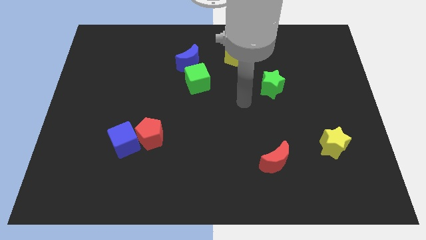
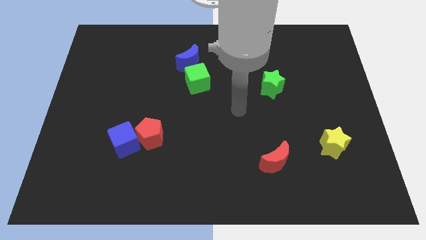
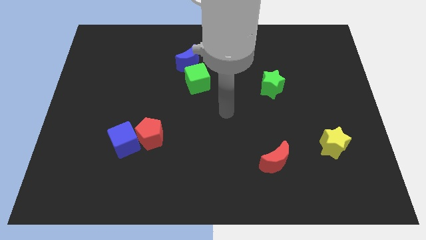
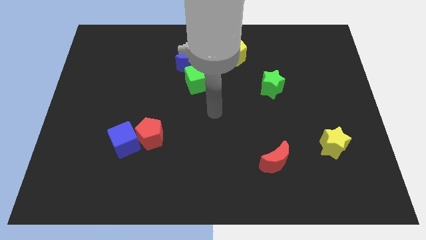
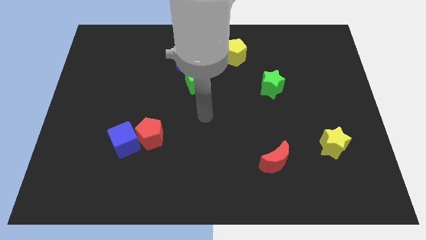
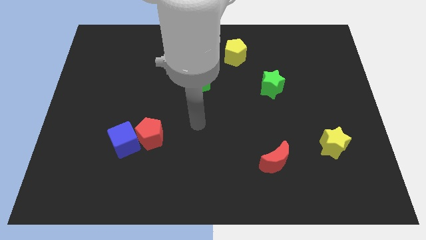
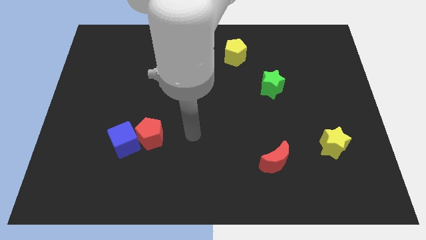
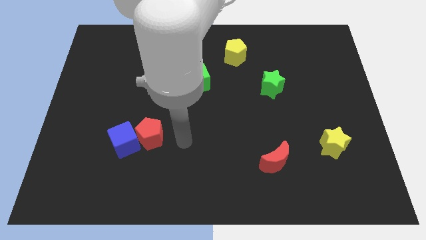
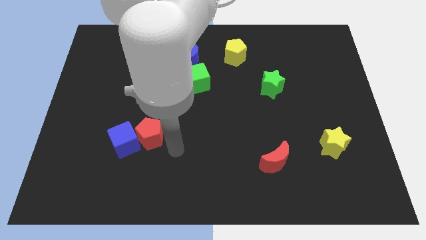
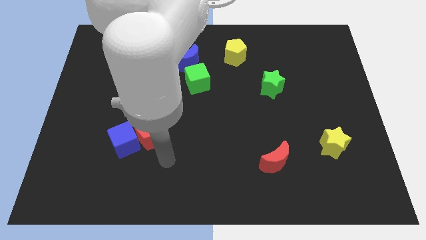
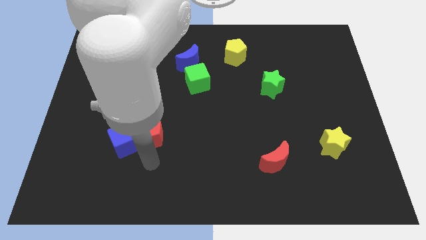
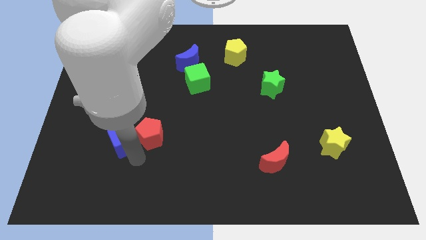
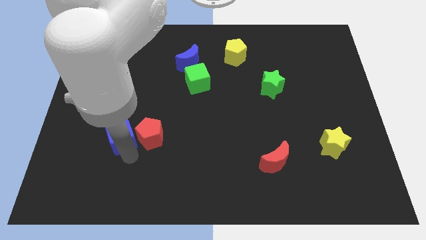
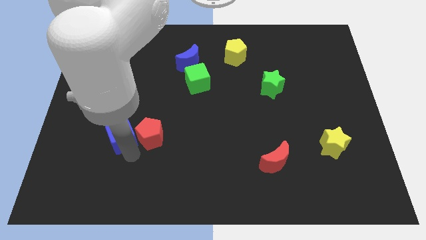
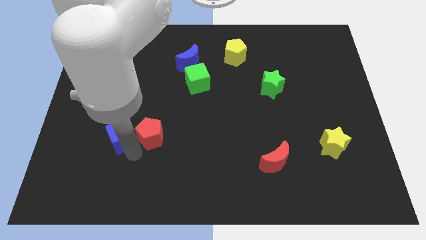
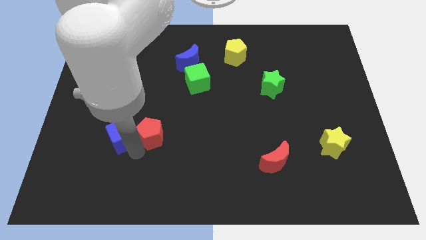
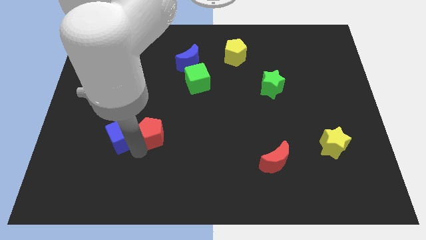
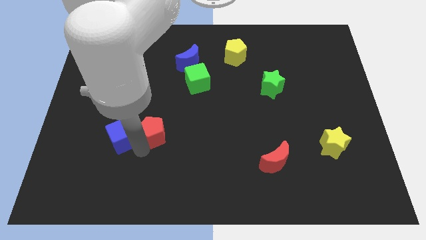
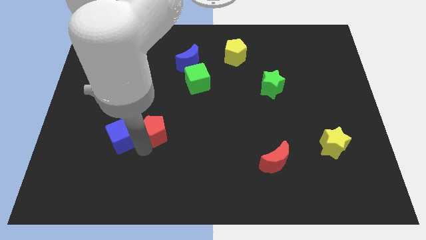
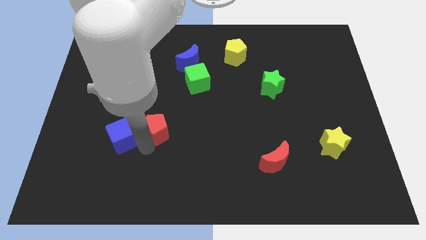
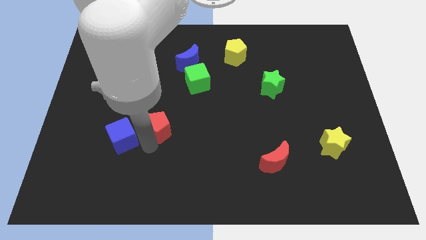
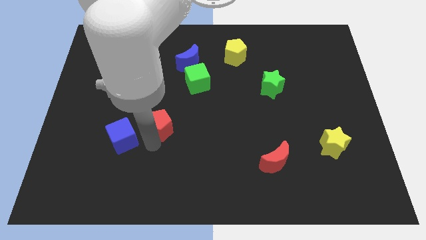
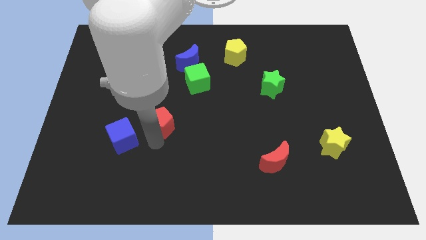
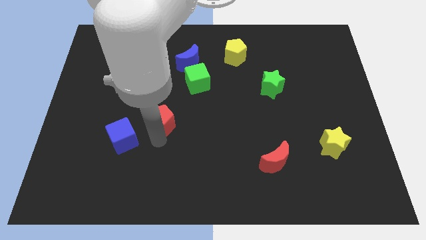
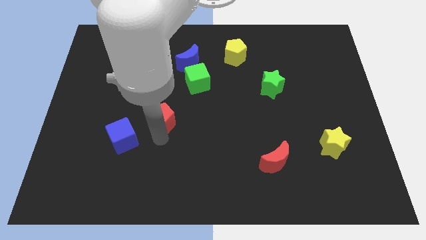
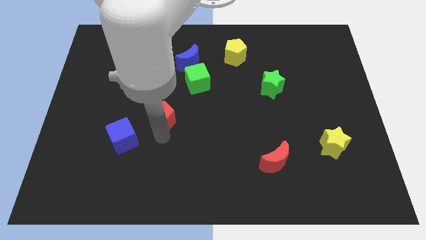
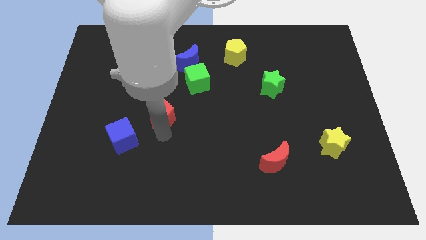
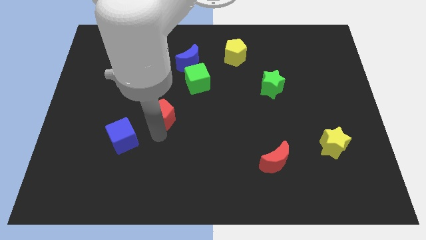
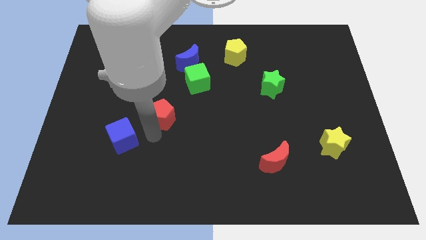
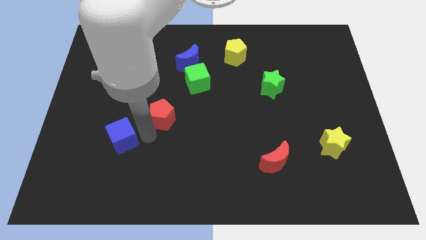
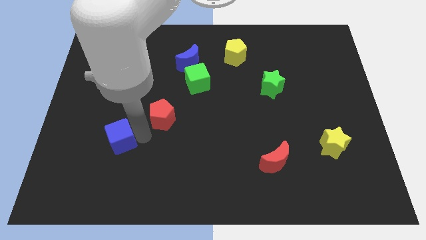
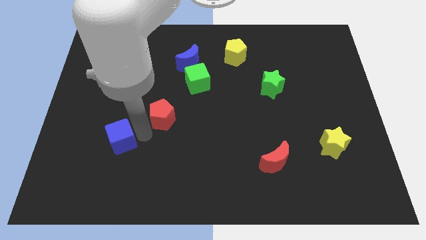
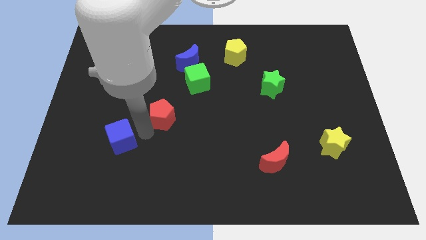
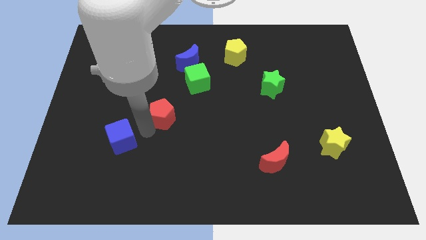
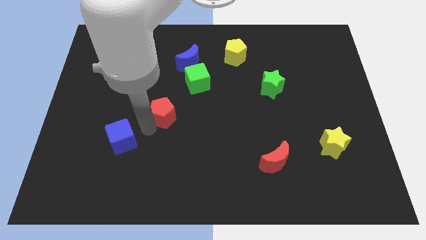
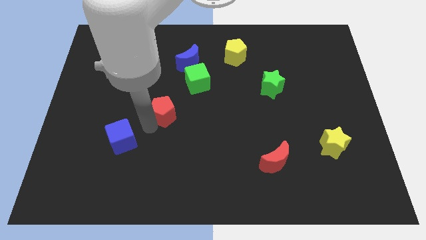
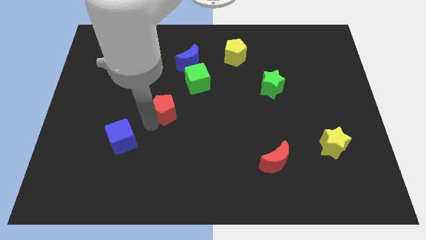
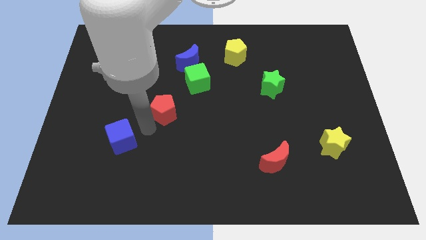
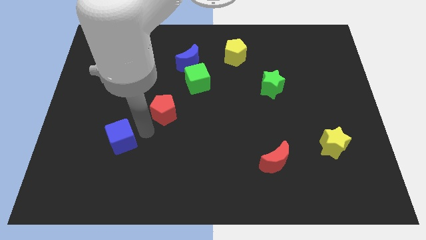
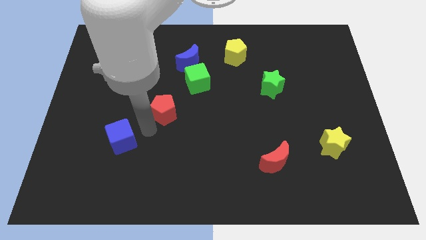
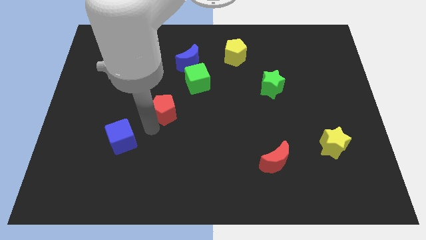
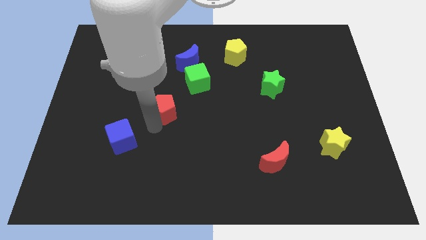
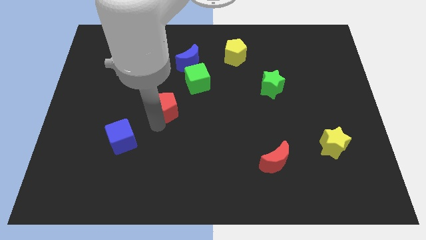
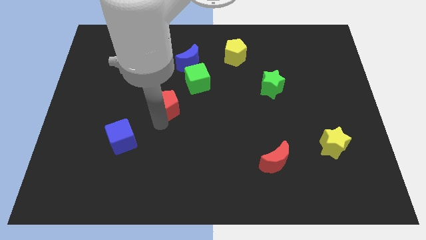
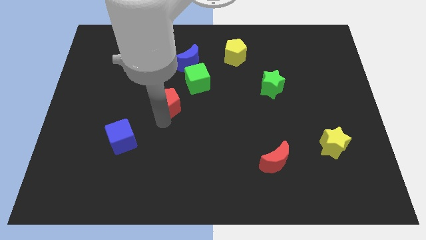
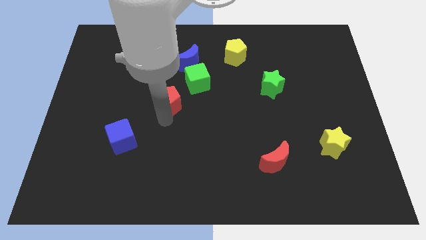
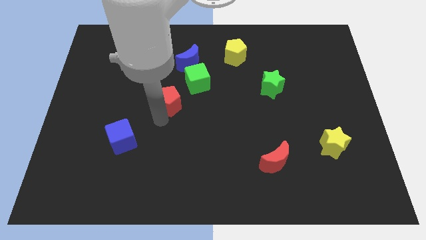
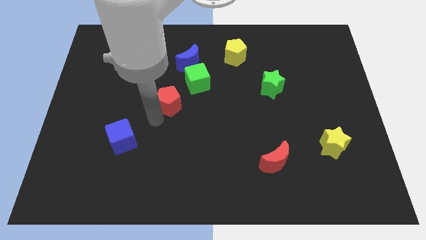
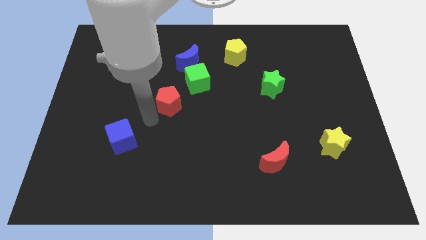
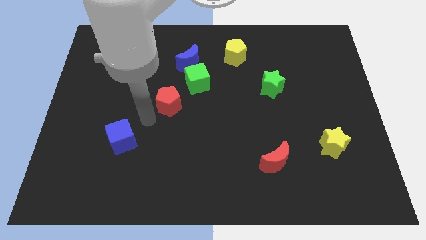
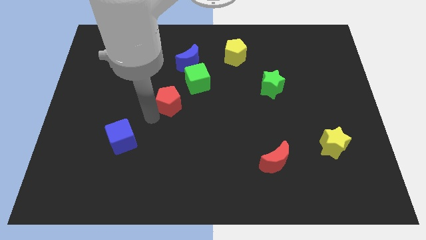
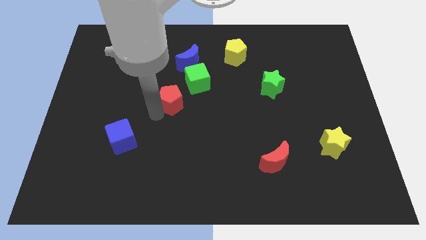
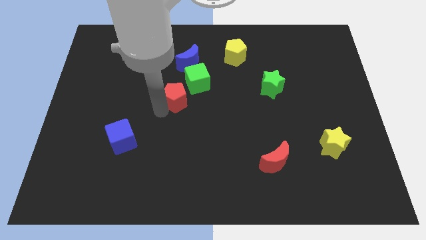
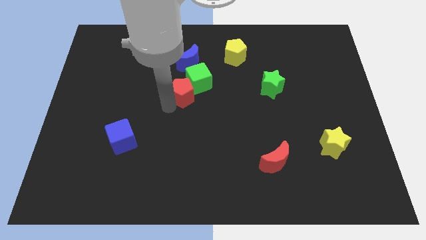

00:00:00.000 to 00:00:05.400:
push the red pentagon towards the green cube

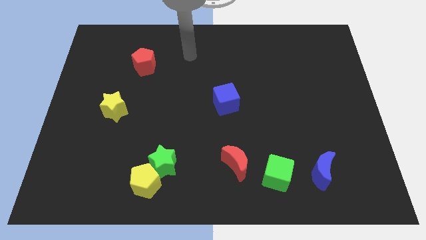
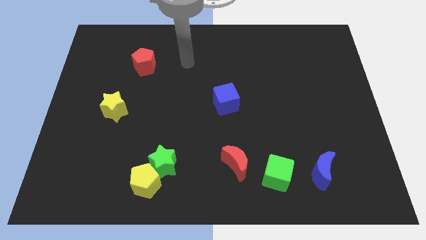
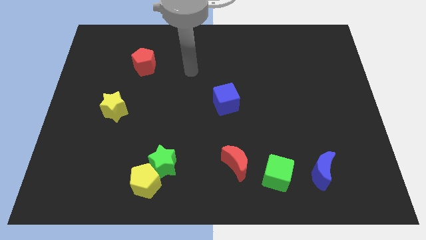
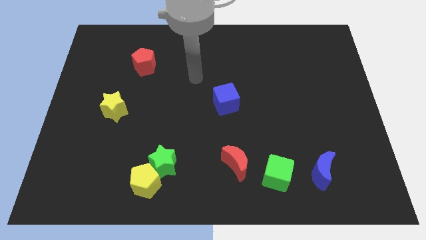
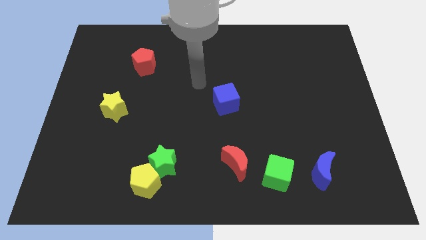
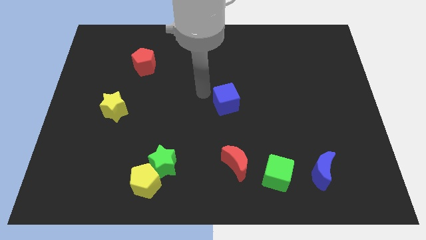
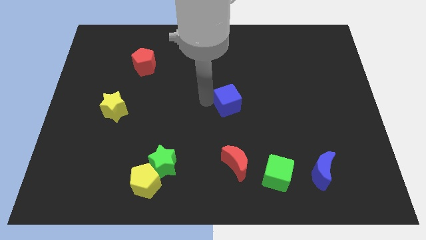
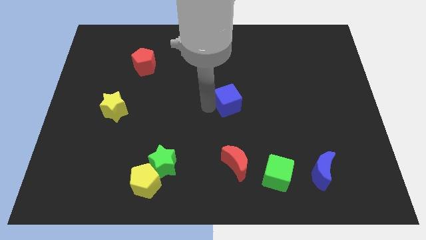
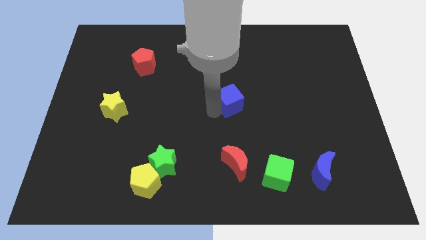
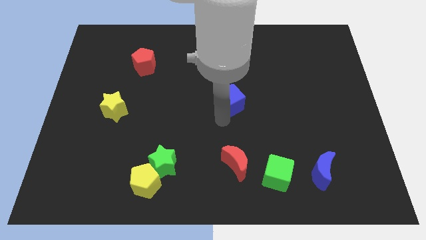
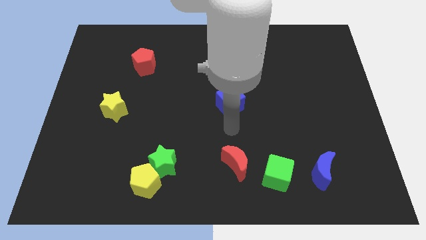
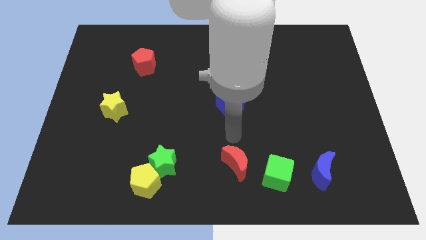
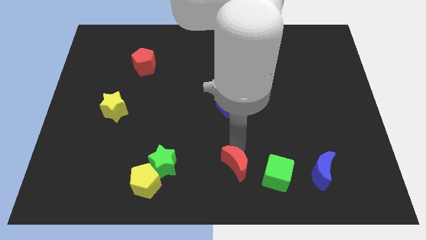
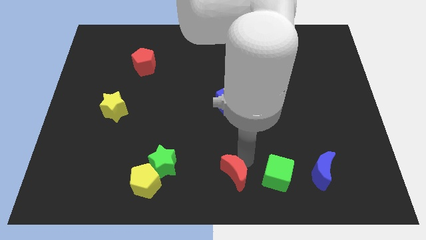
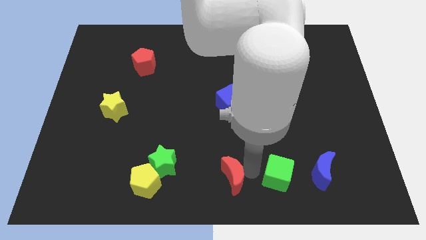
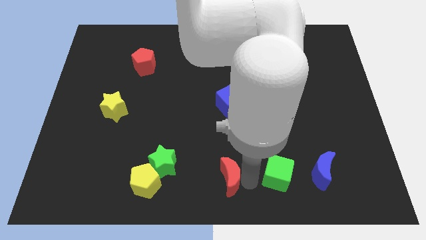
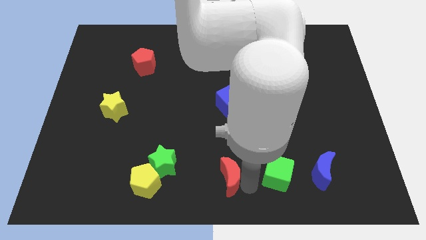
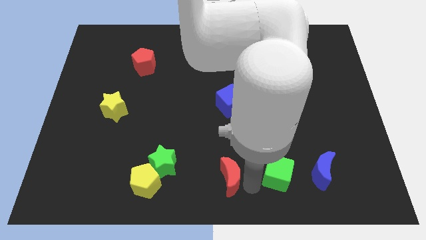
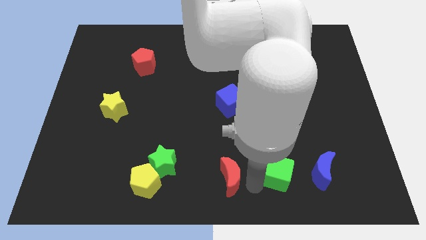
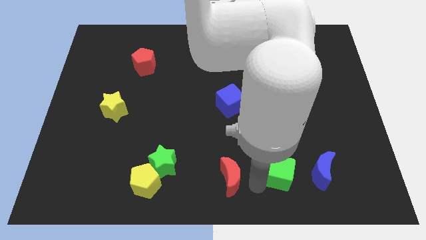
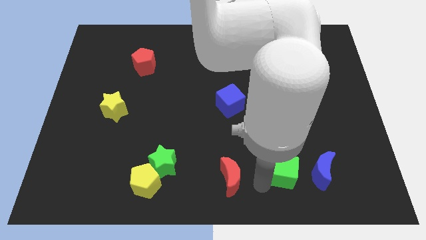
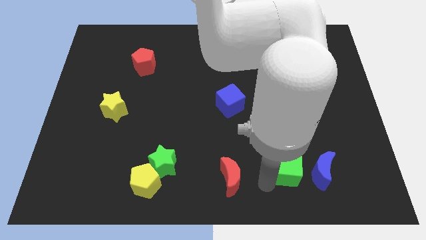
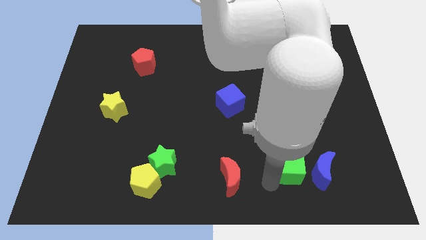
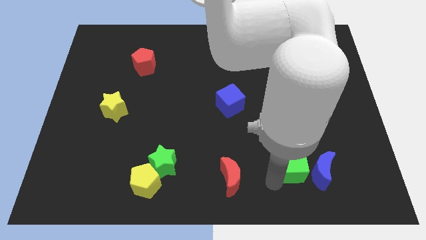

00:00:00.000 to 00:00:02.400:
move the green cube towards the blue moon

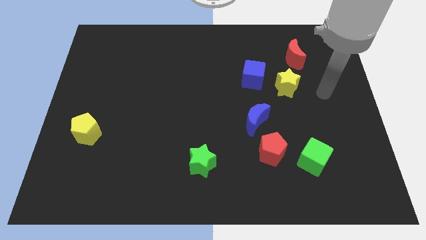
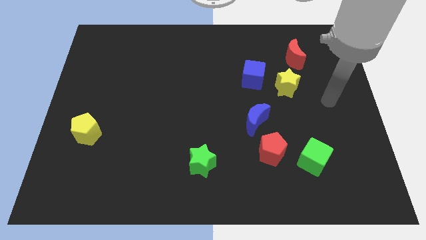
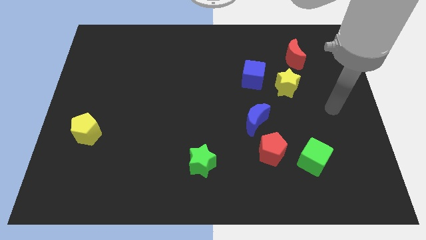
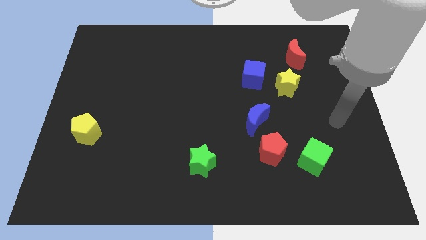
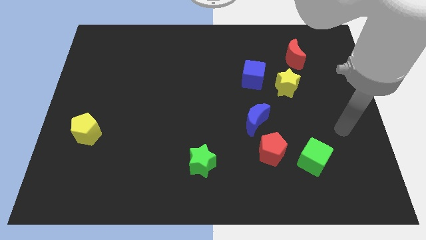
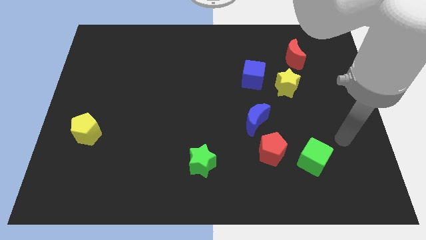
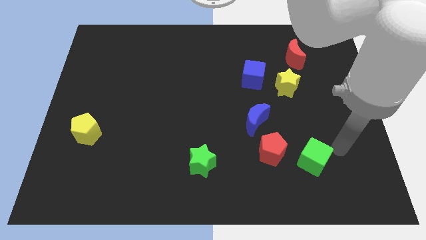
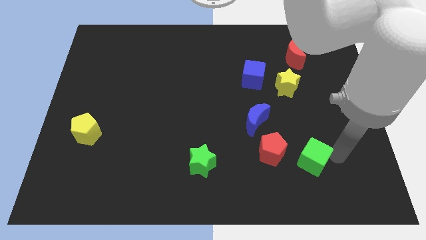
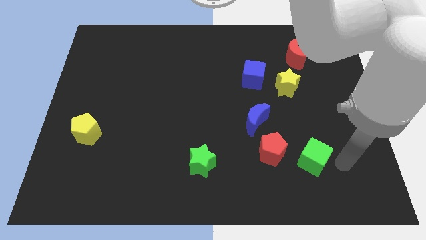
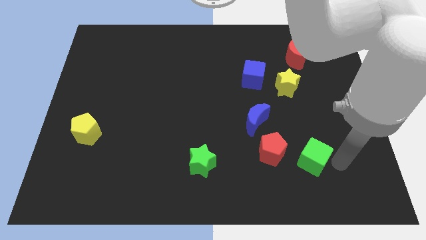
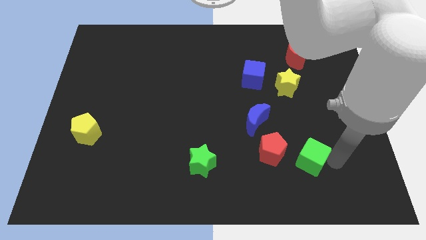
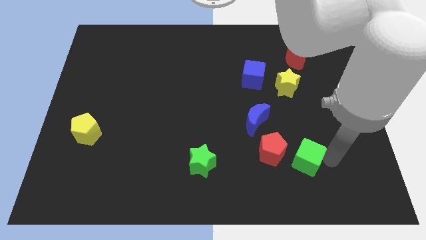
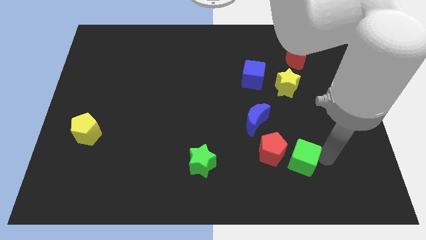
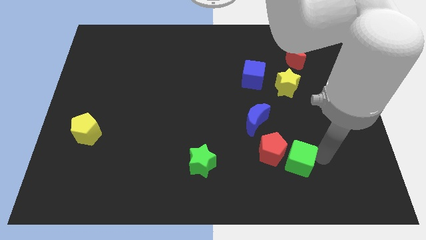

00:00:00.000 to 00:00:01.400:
slide the green cube next to the red pentagon
